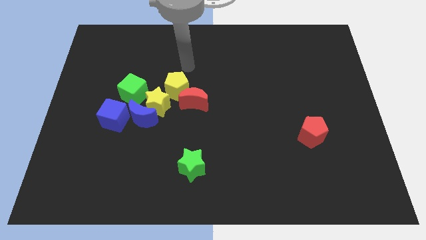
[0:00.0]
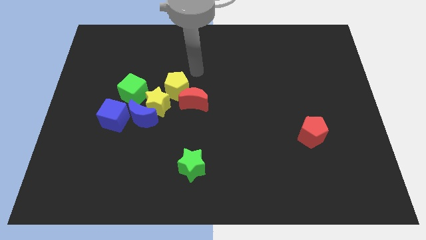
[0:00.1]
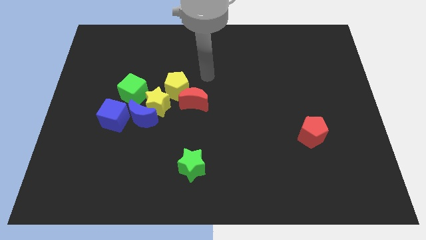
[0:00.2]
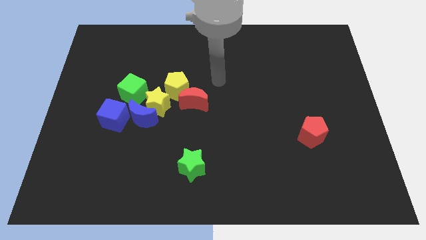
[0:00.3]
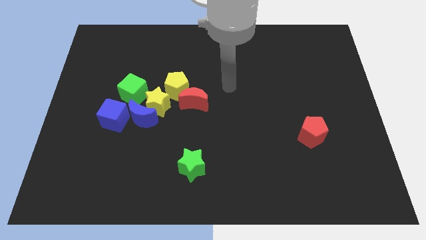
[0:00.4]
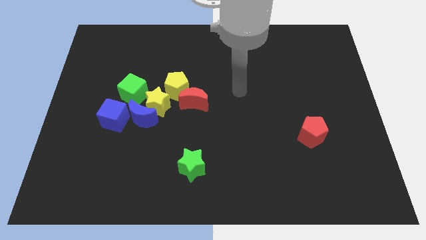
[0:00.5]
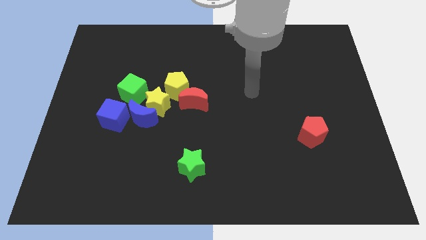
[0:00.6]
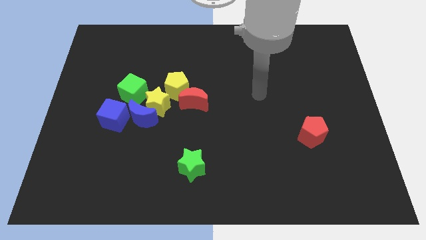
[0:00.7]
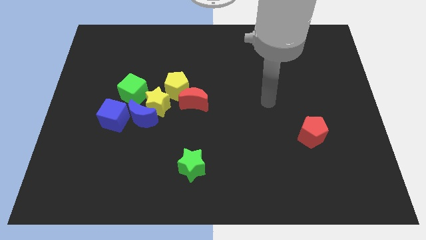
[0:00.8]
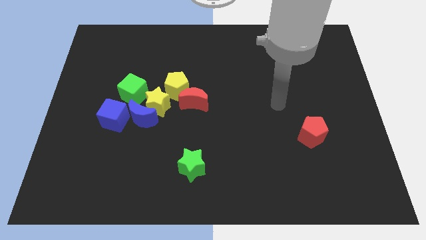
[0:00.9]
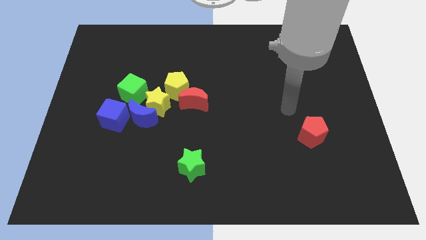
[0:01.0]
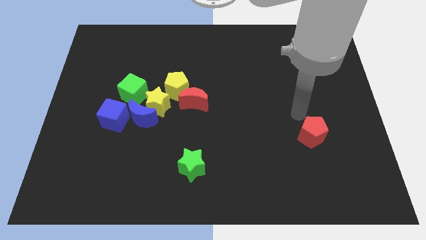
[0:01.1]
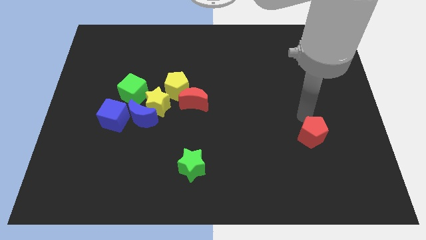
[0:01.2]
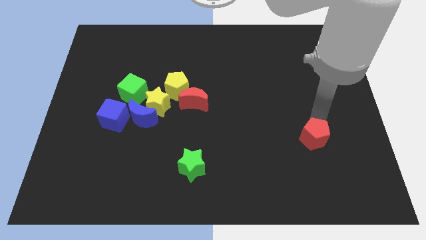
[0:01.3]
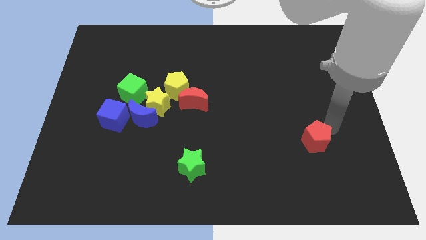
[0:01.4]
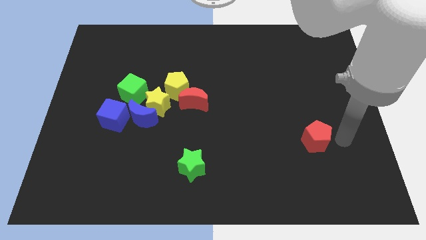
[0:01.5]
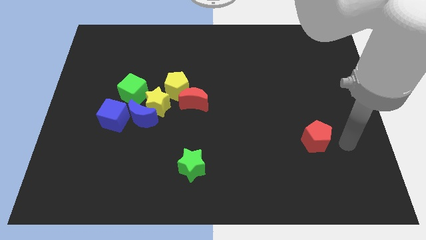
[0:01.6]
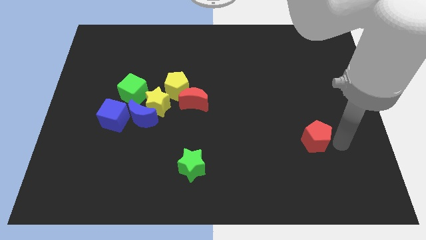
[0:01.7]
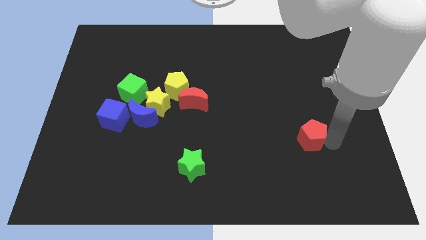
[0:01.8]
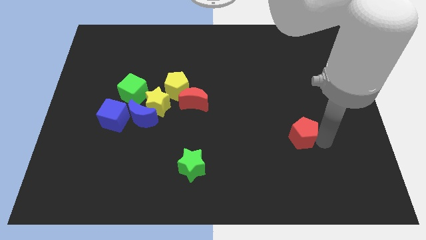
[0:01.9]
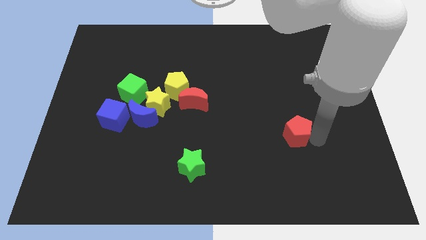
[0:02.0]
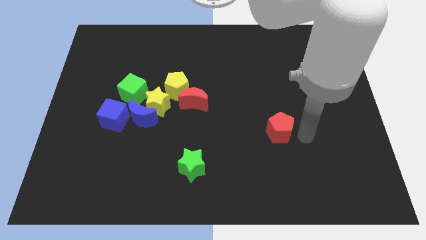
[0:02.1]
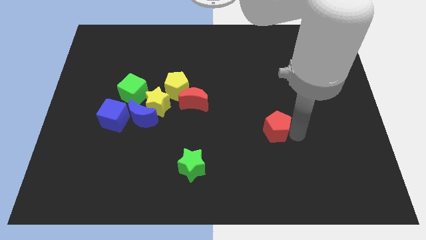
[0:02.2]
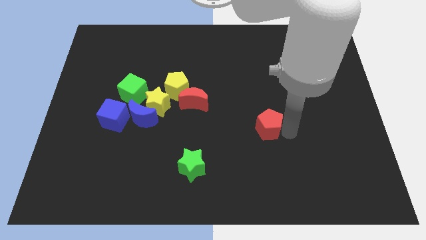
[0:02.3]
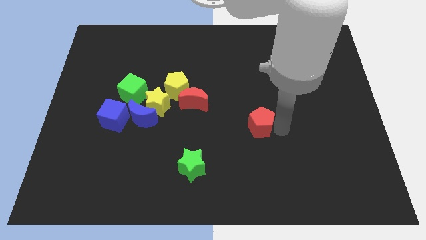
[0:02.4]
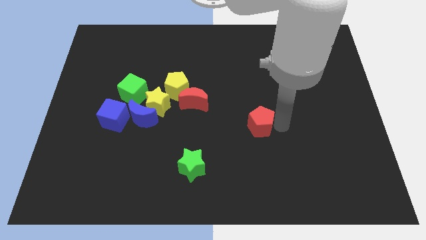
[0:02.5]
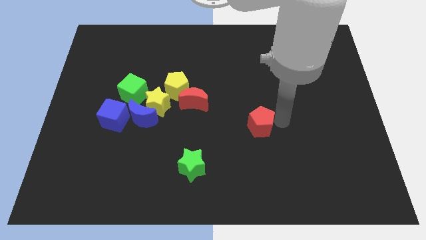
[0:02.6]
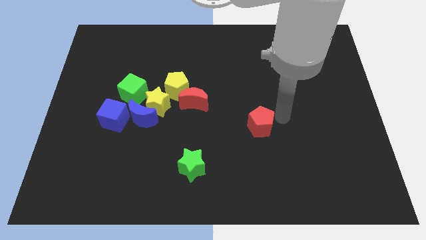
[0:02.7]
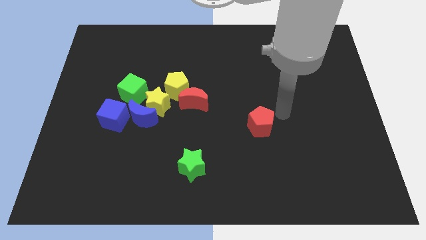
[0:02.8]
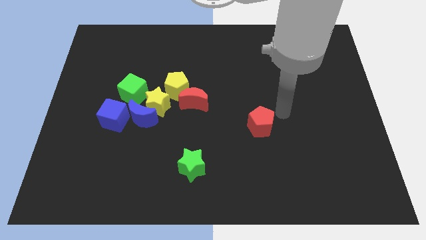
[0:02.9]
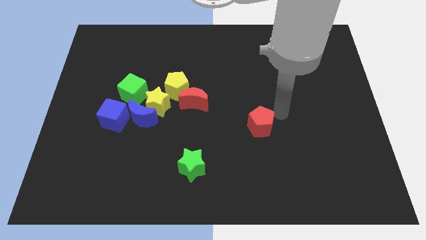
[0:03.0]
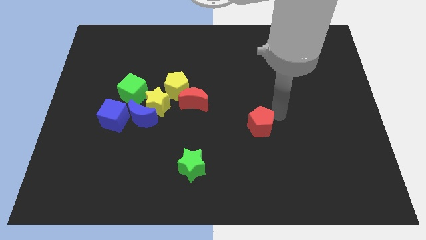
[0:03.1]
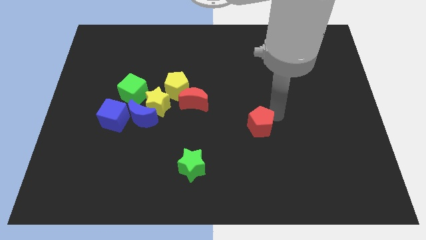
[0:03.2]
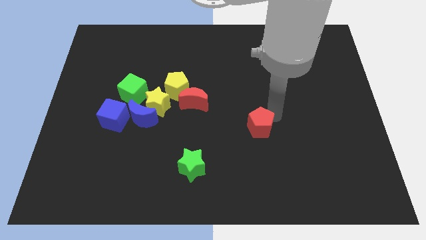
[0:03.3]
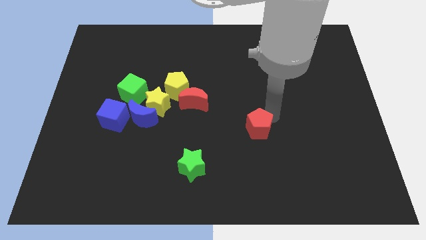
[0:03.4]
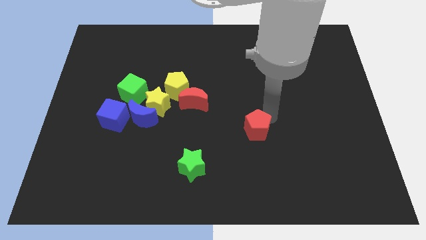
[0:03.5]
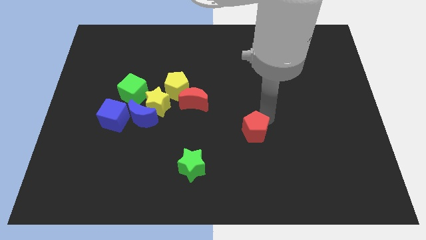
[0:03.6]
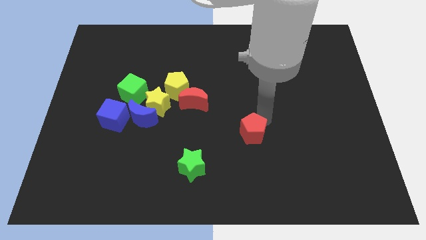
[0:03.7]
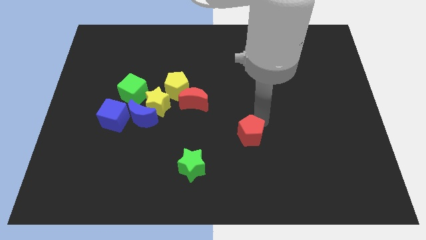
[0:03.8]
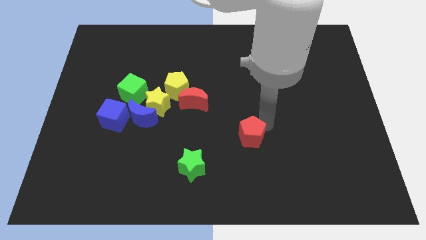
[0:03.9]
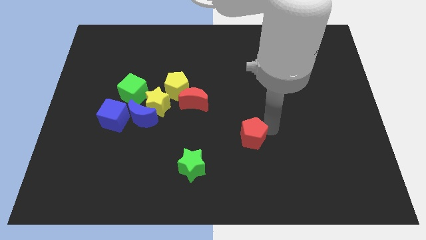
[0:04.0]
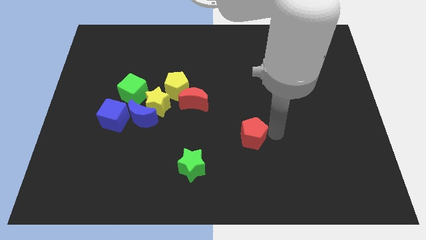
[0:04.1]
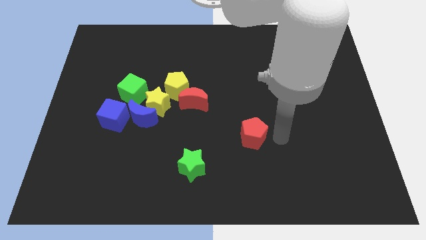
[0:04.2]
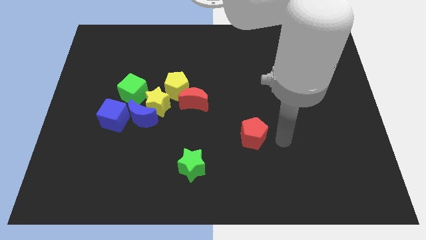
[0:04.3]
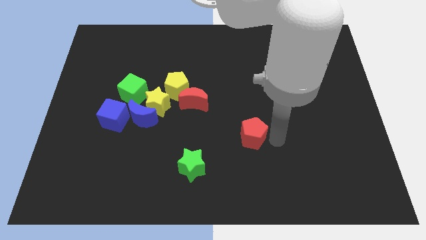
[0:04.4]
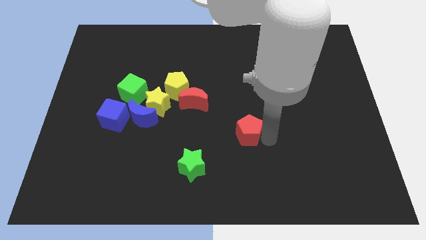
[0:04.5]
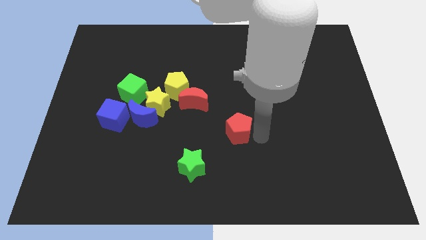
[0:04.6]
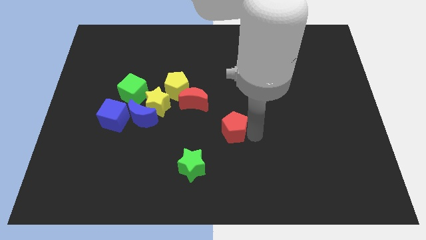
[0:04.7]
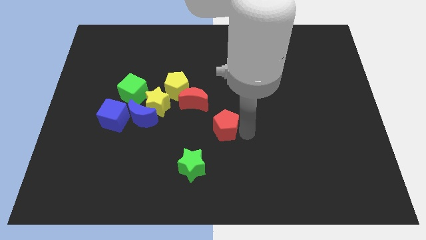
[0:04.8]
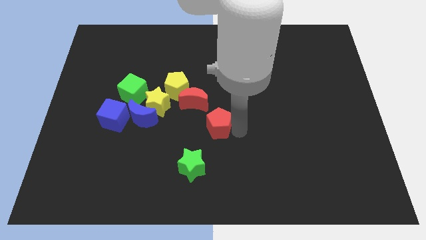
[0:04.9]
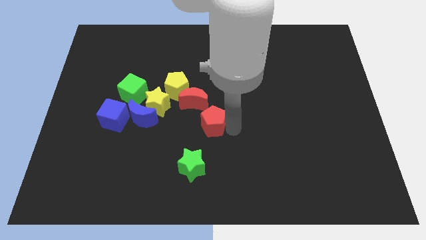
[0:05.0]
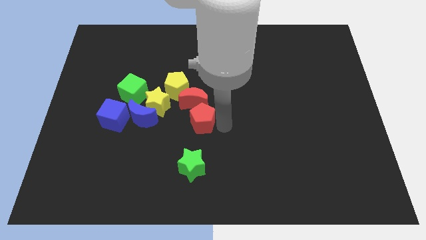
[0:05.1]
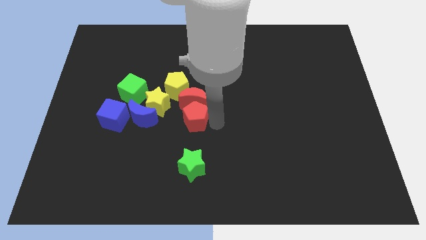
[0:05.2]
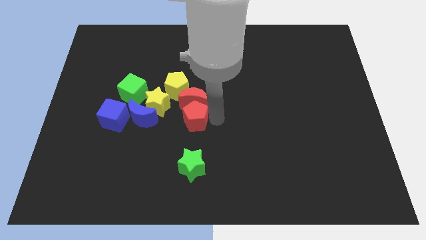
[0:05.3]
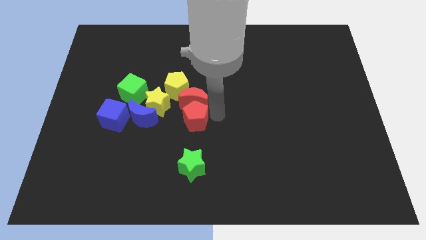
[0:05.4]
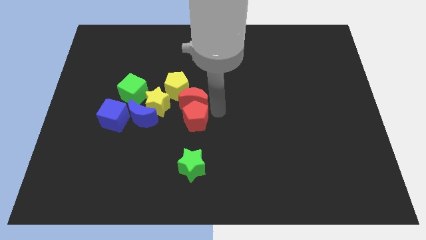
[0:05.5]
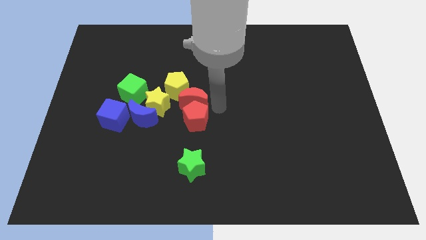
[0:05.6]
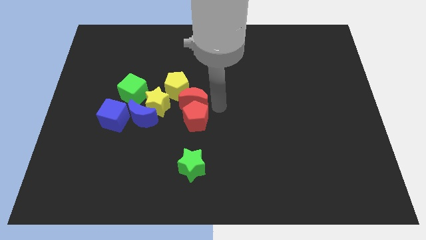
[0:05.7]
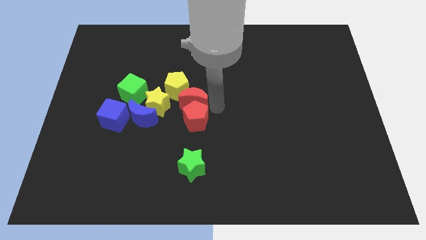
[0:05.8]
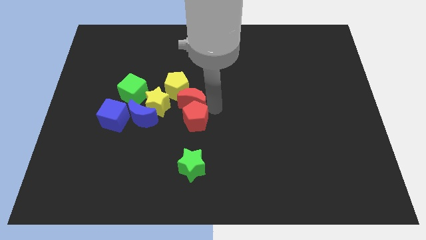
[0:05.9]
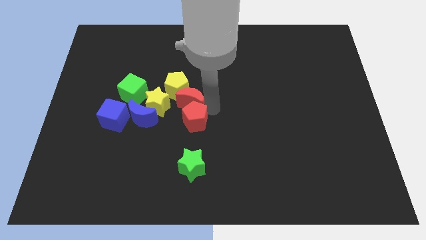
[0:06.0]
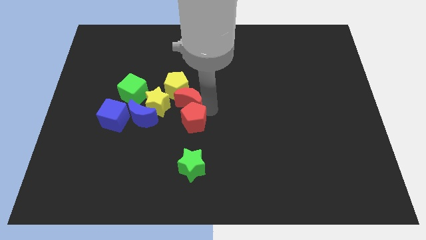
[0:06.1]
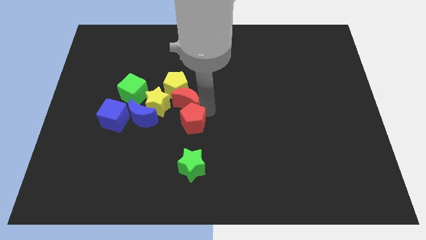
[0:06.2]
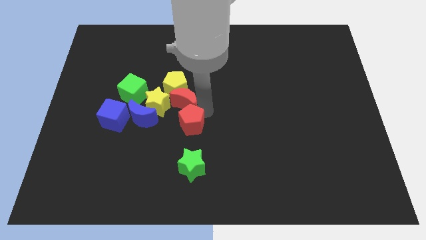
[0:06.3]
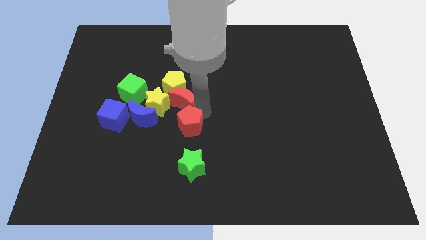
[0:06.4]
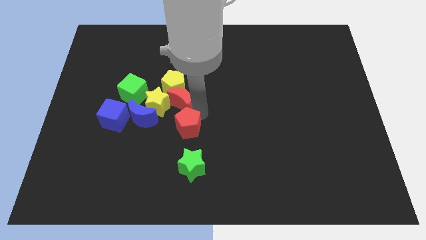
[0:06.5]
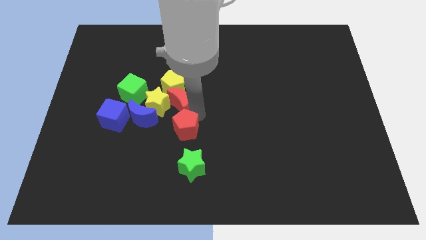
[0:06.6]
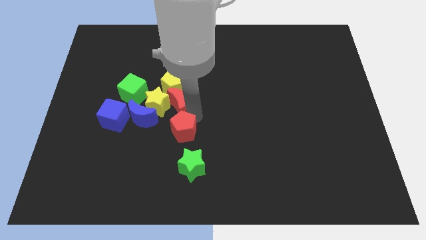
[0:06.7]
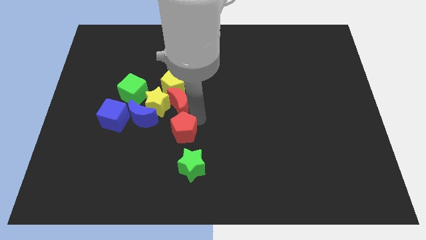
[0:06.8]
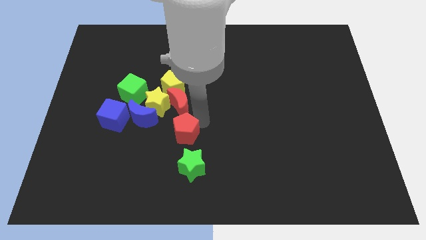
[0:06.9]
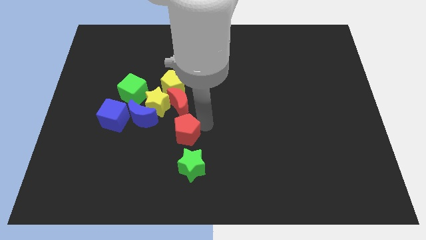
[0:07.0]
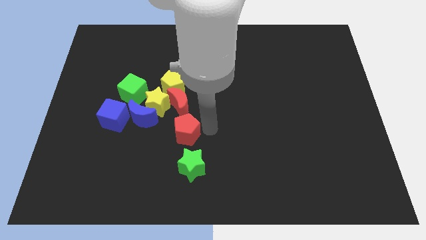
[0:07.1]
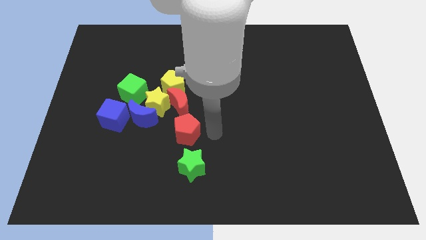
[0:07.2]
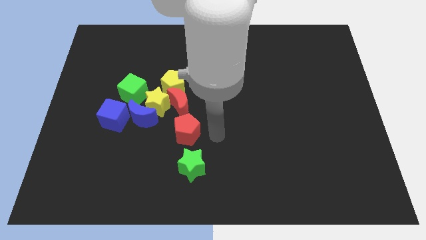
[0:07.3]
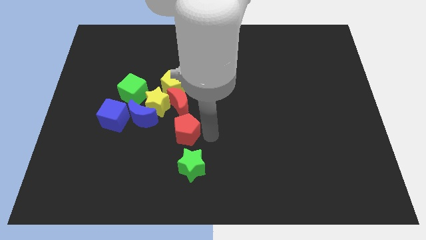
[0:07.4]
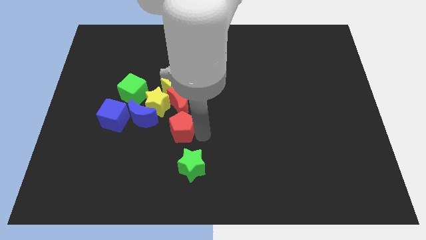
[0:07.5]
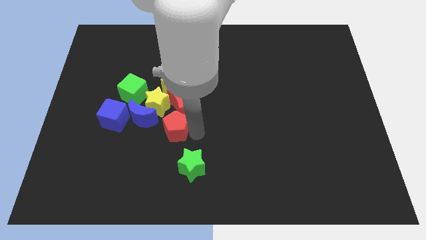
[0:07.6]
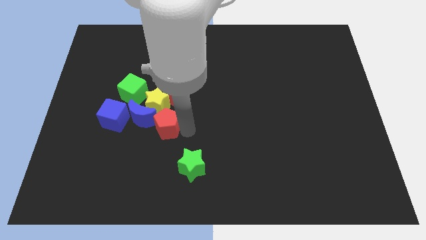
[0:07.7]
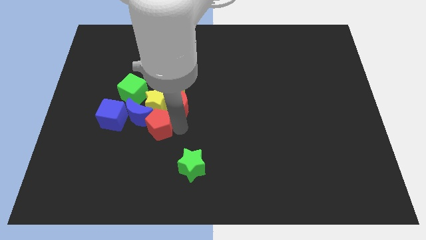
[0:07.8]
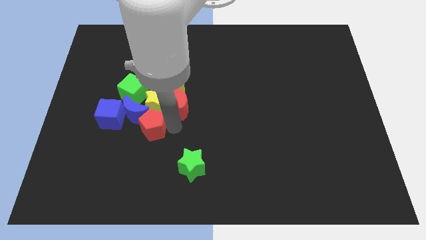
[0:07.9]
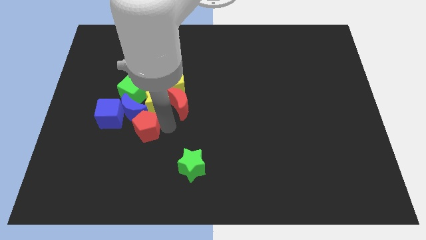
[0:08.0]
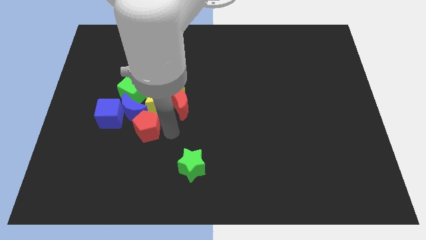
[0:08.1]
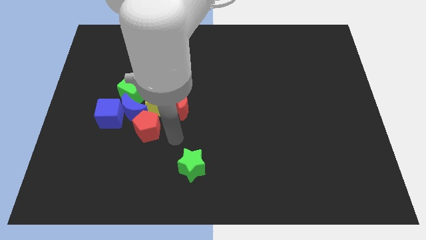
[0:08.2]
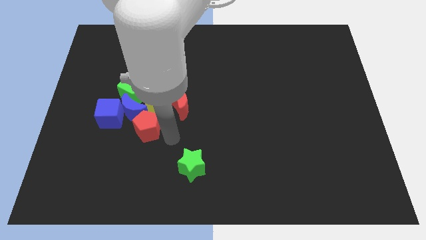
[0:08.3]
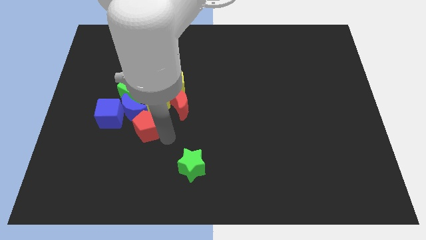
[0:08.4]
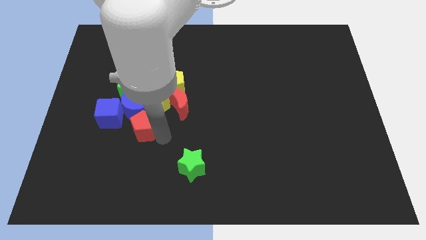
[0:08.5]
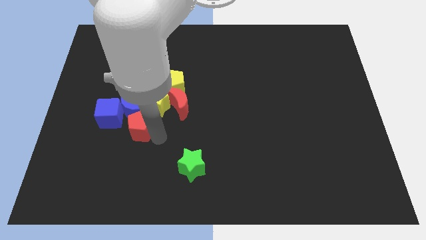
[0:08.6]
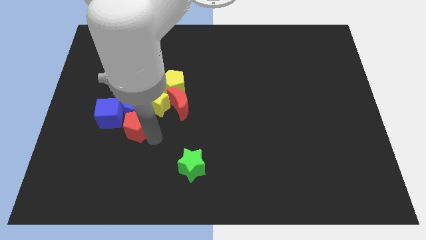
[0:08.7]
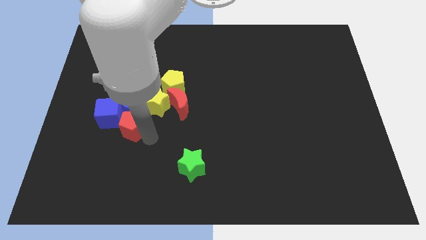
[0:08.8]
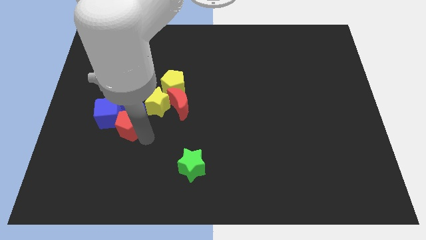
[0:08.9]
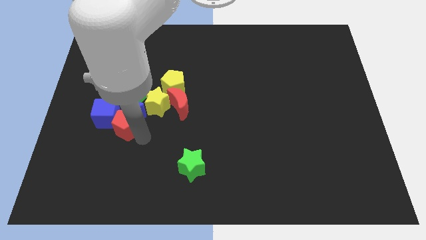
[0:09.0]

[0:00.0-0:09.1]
move the red pentagon towards the blue cube
